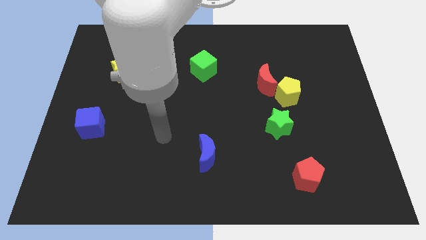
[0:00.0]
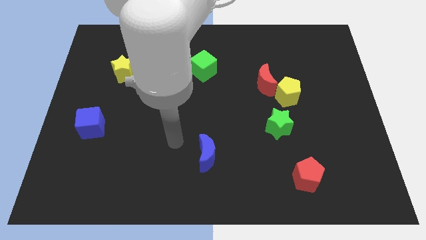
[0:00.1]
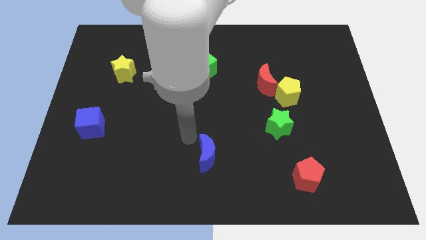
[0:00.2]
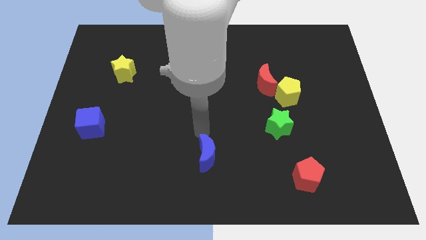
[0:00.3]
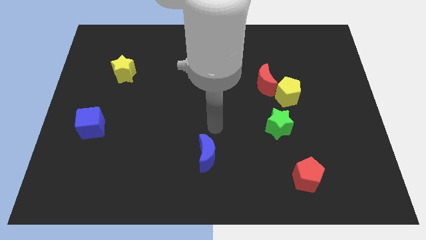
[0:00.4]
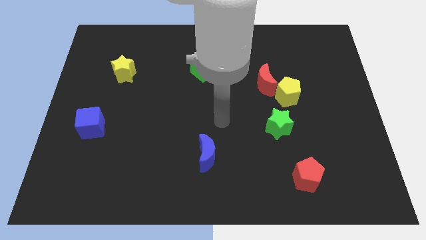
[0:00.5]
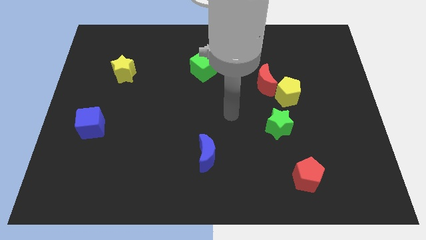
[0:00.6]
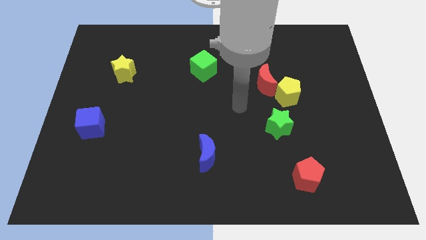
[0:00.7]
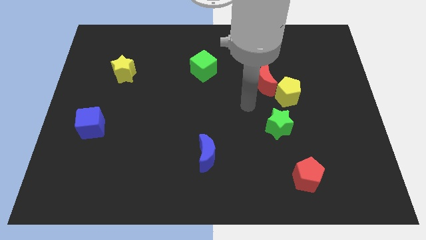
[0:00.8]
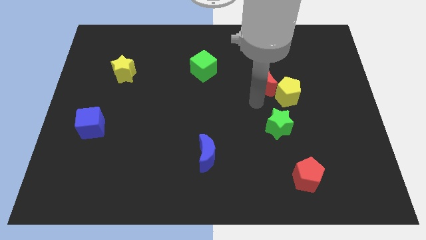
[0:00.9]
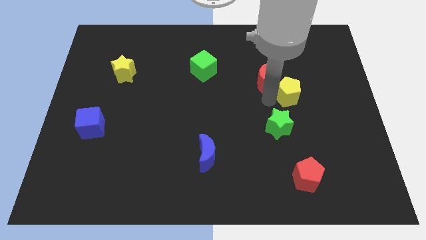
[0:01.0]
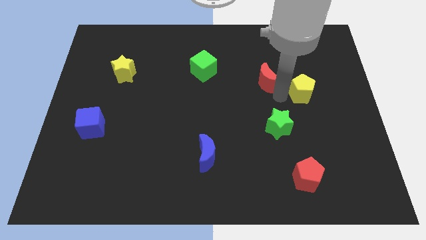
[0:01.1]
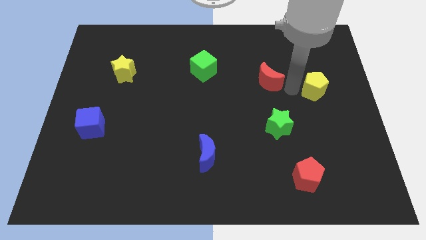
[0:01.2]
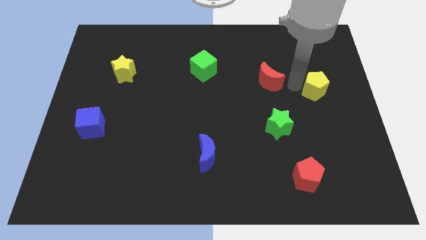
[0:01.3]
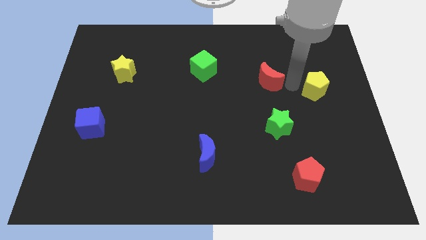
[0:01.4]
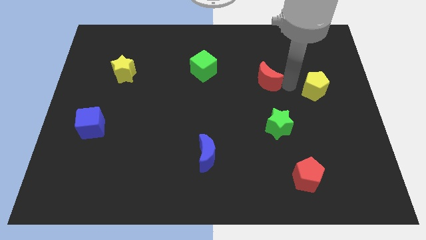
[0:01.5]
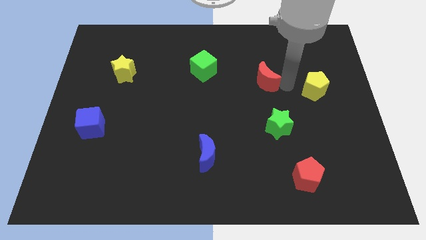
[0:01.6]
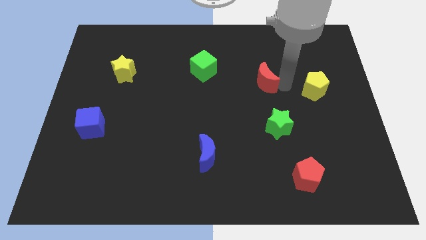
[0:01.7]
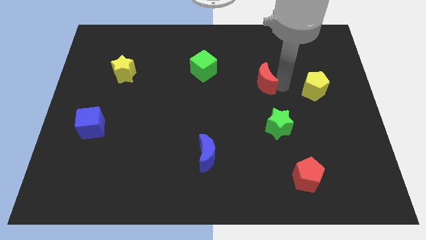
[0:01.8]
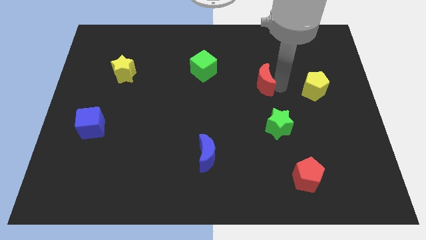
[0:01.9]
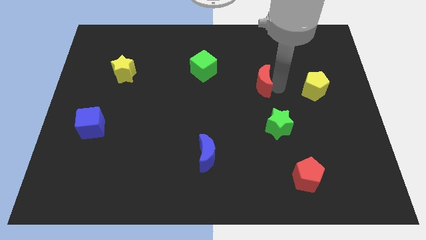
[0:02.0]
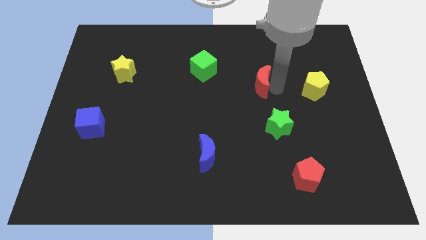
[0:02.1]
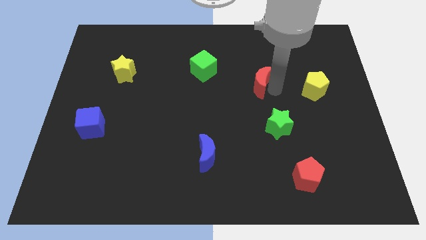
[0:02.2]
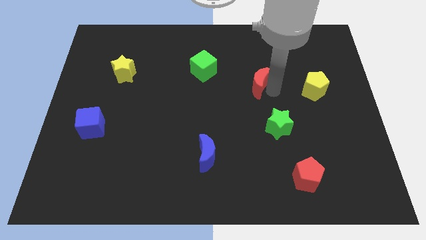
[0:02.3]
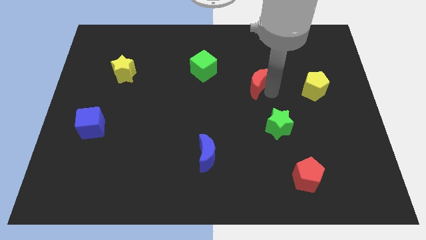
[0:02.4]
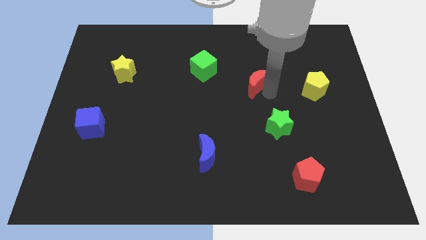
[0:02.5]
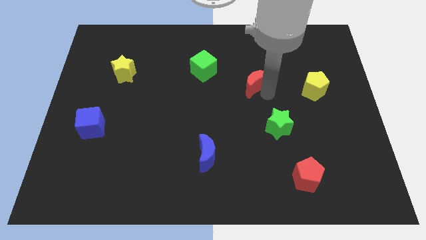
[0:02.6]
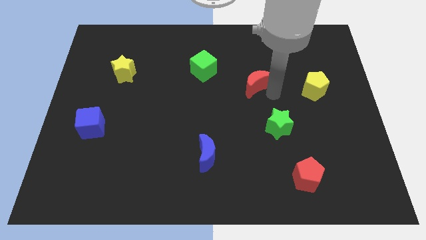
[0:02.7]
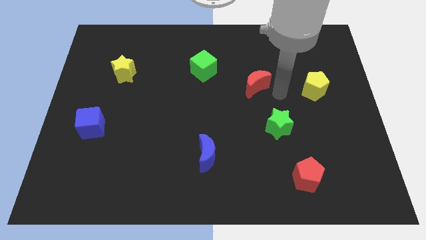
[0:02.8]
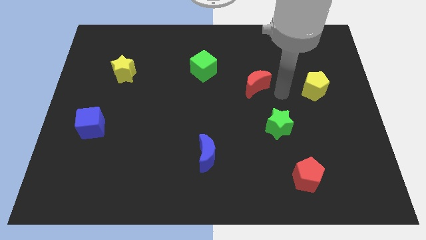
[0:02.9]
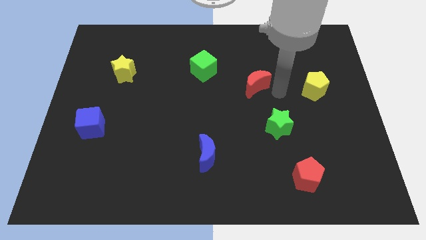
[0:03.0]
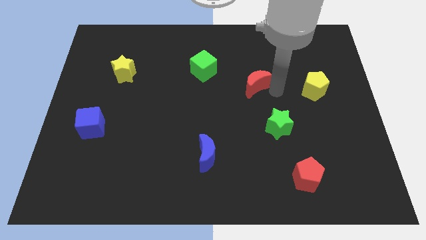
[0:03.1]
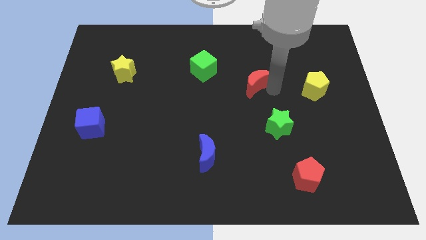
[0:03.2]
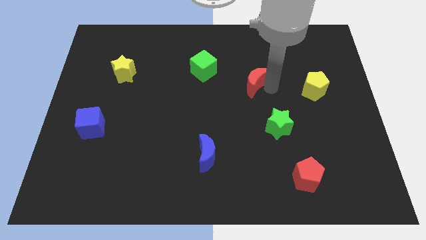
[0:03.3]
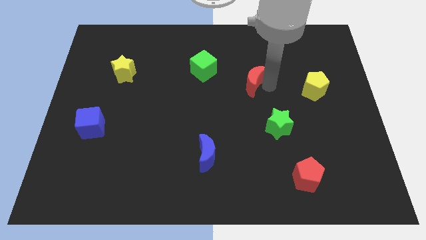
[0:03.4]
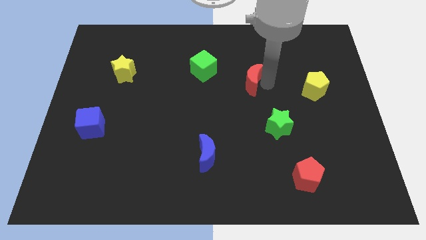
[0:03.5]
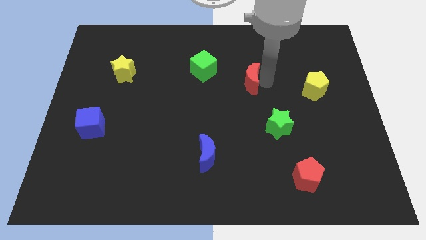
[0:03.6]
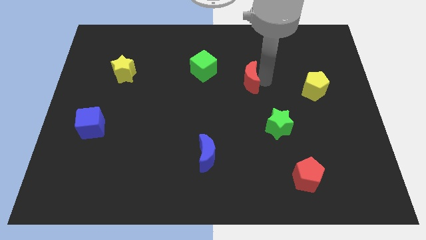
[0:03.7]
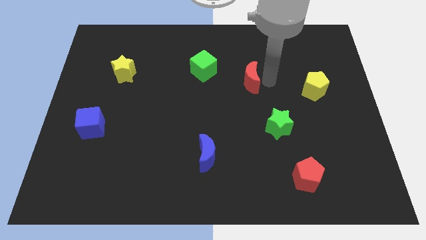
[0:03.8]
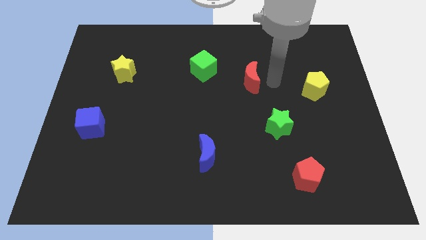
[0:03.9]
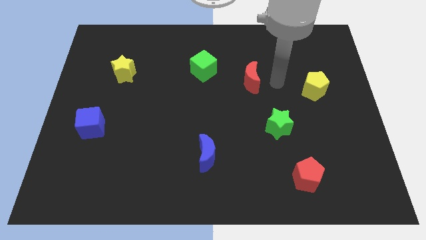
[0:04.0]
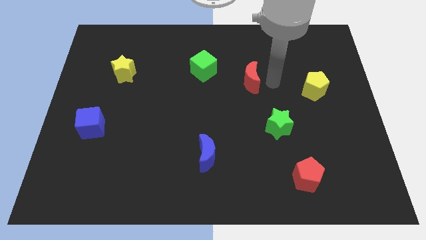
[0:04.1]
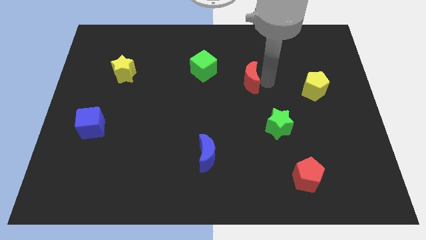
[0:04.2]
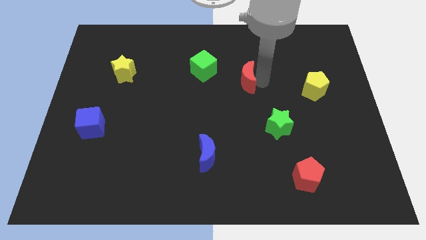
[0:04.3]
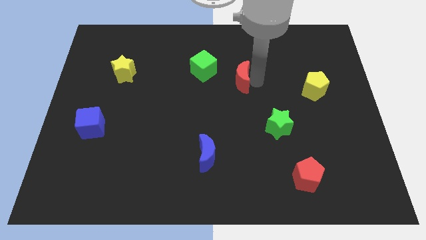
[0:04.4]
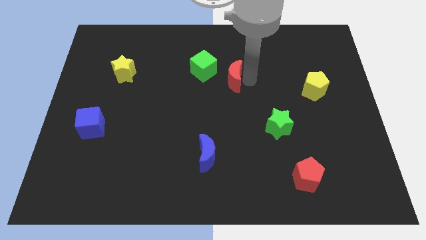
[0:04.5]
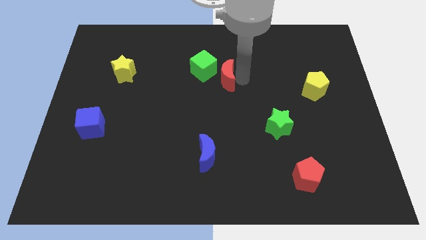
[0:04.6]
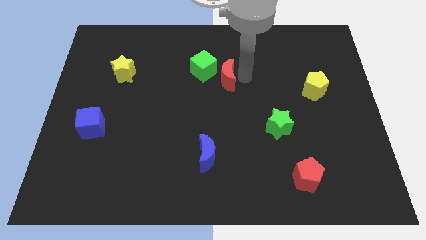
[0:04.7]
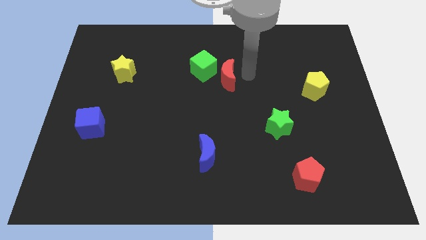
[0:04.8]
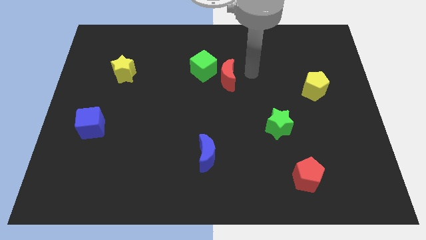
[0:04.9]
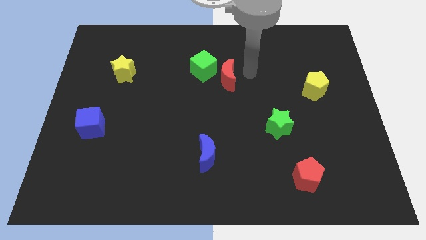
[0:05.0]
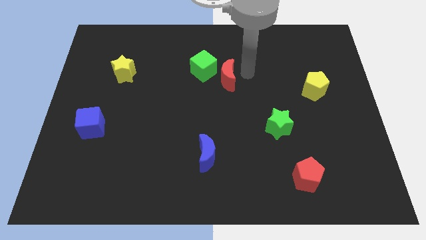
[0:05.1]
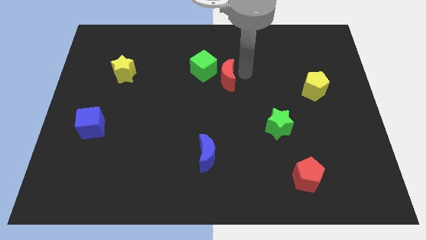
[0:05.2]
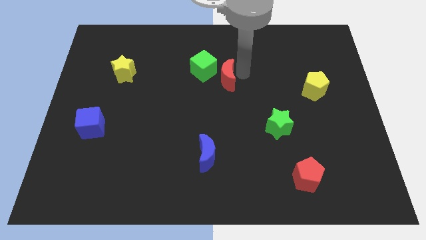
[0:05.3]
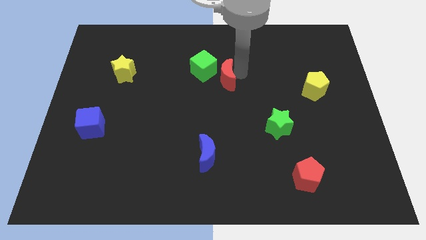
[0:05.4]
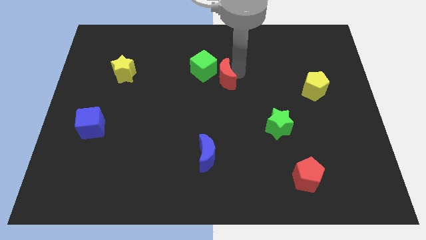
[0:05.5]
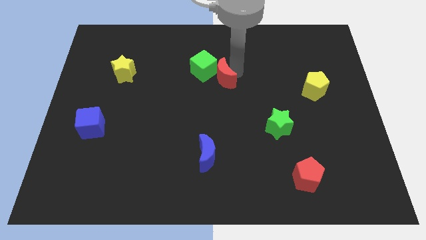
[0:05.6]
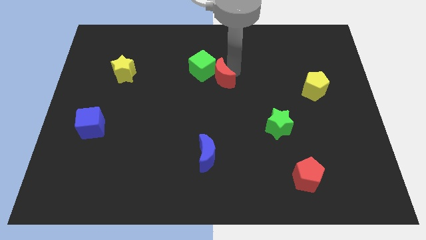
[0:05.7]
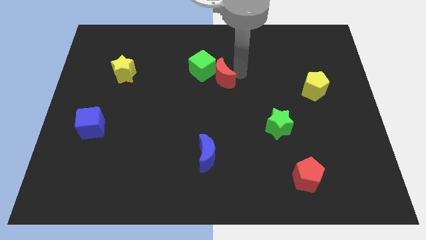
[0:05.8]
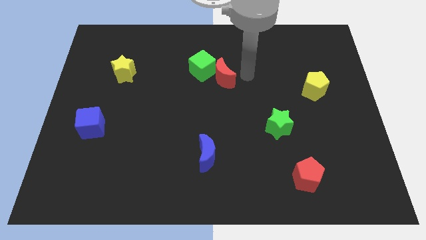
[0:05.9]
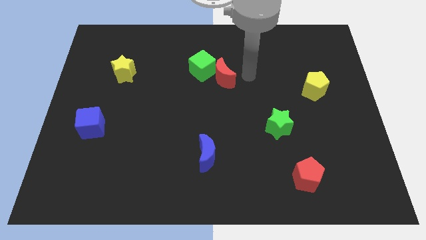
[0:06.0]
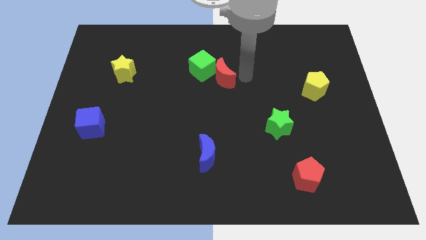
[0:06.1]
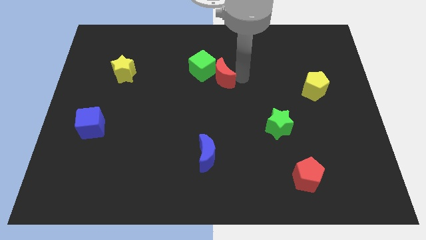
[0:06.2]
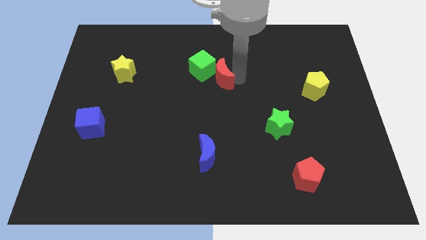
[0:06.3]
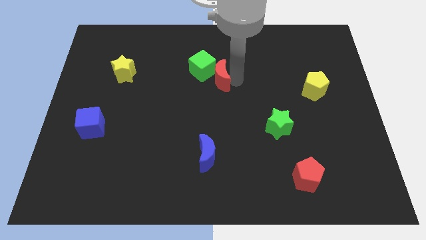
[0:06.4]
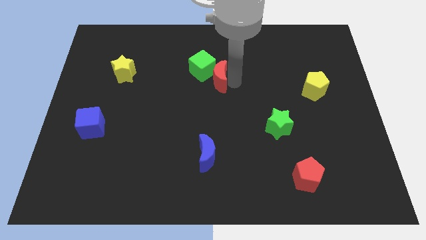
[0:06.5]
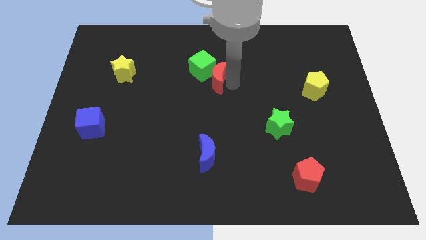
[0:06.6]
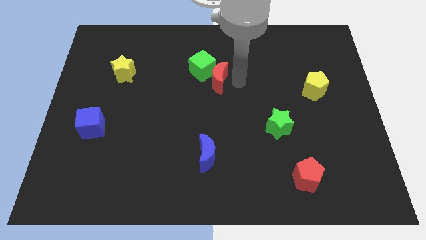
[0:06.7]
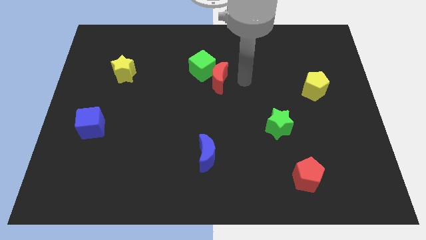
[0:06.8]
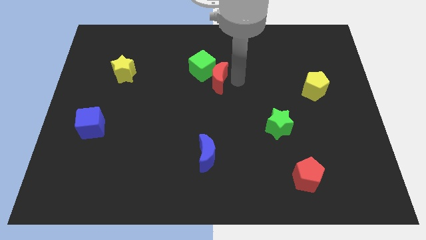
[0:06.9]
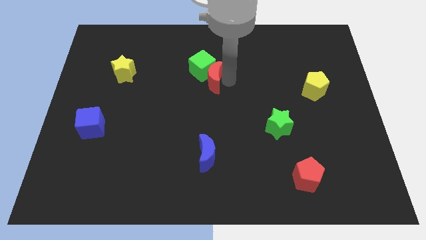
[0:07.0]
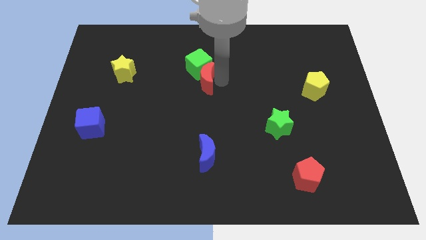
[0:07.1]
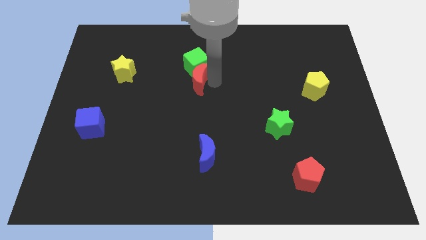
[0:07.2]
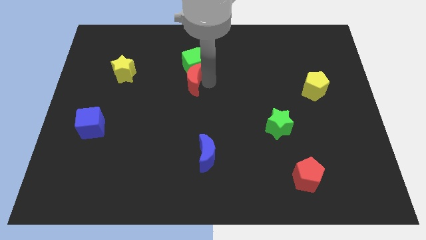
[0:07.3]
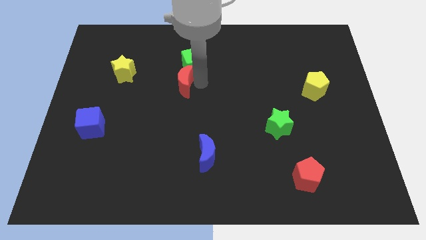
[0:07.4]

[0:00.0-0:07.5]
move the red moon left

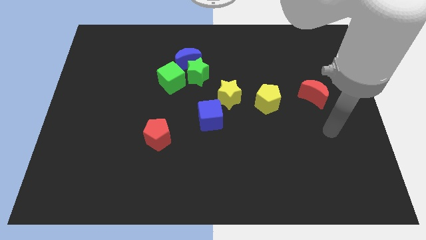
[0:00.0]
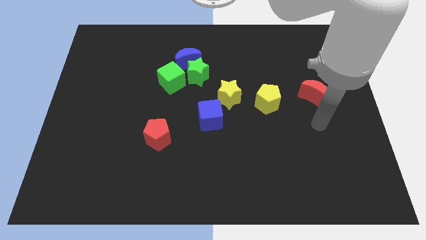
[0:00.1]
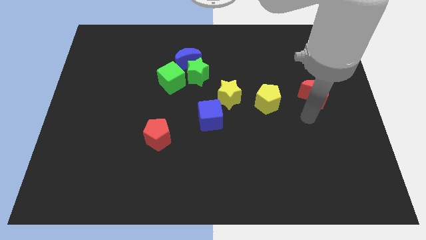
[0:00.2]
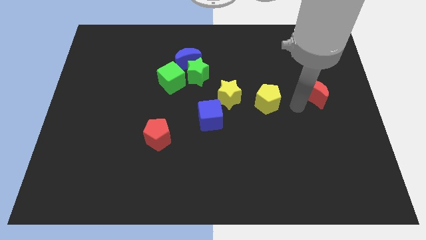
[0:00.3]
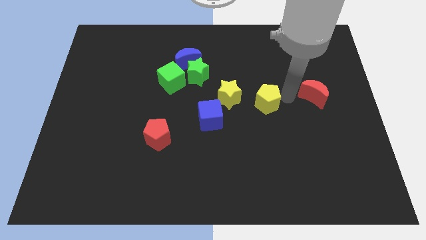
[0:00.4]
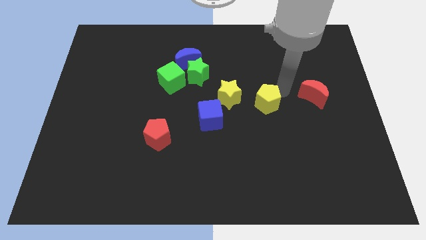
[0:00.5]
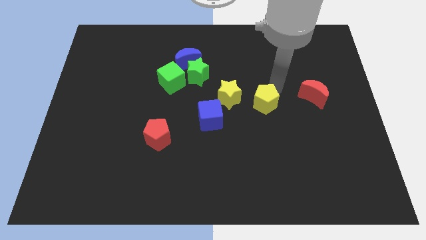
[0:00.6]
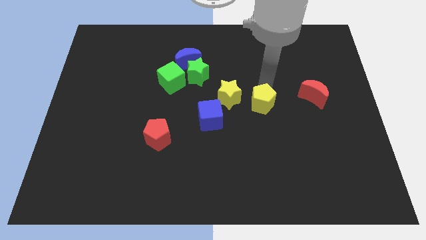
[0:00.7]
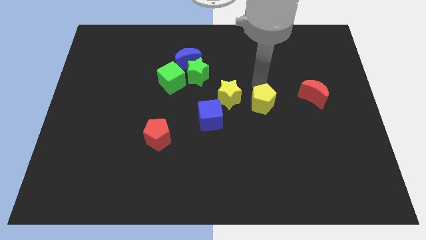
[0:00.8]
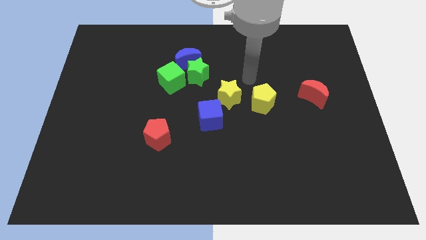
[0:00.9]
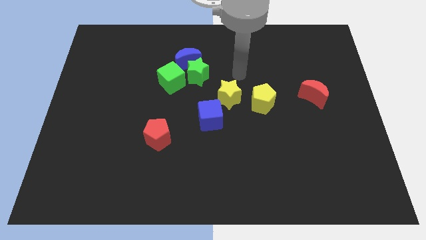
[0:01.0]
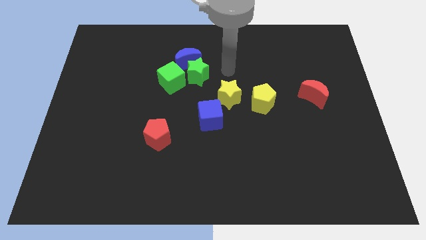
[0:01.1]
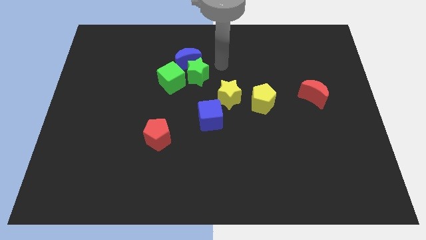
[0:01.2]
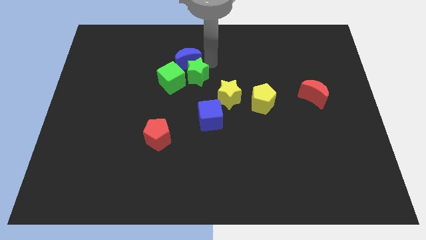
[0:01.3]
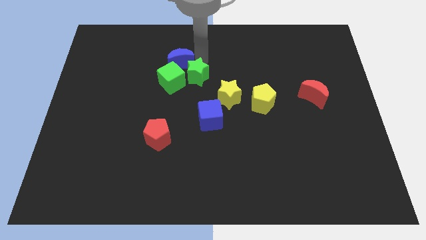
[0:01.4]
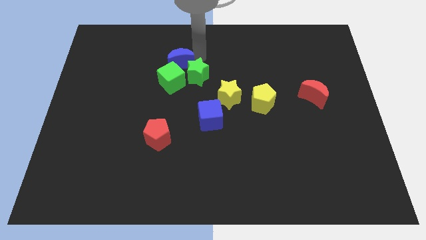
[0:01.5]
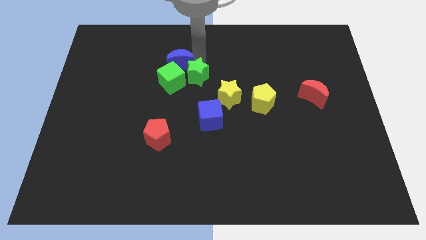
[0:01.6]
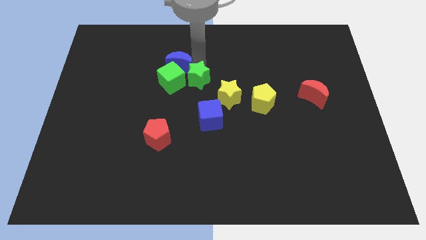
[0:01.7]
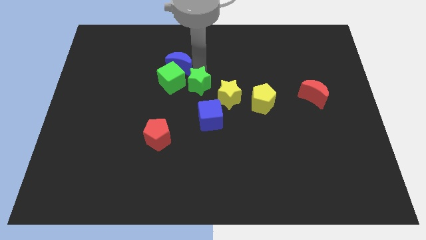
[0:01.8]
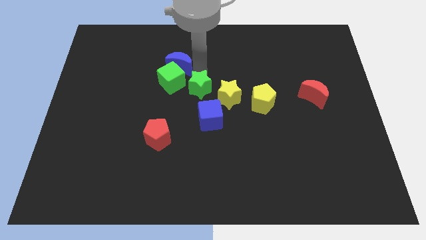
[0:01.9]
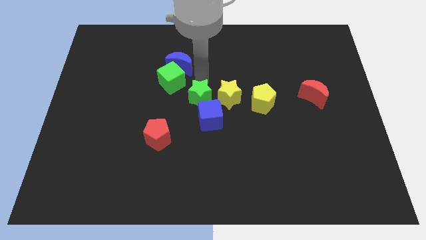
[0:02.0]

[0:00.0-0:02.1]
slide the green star a bit down
